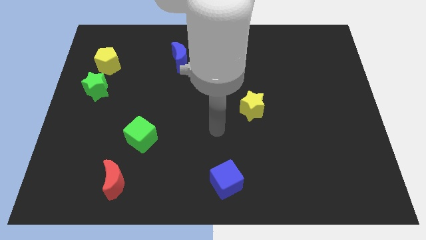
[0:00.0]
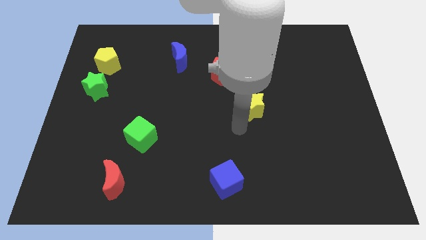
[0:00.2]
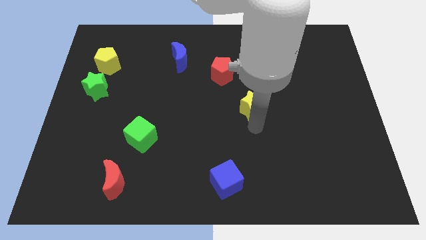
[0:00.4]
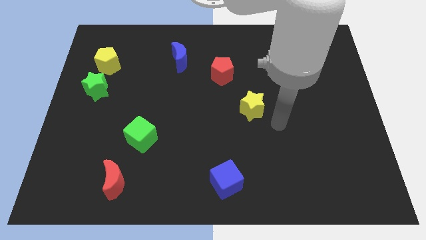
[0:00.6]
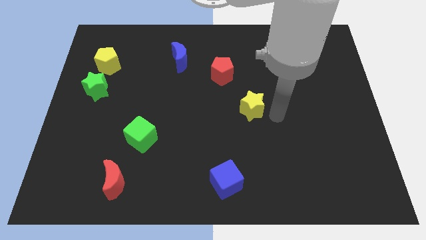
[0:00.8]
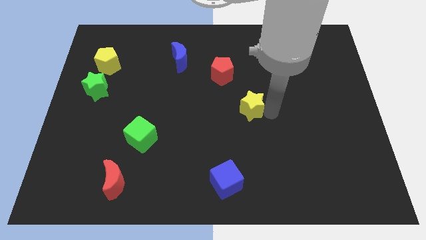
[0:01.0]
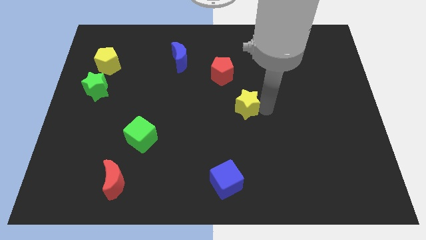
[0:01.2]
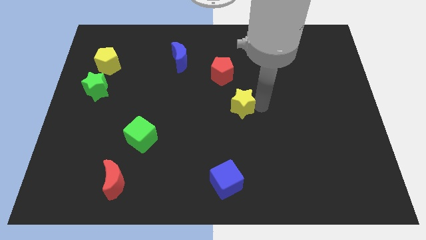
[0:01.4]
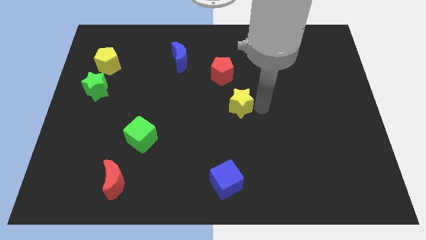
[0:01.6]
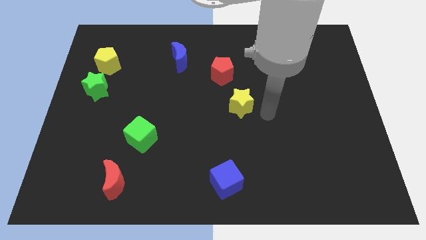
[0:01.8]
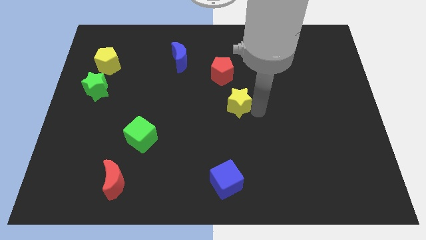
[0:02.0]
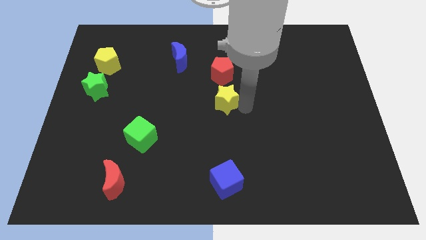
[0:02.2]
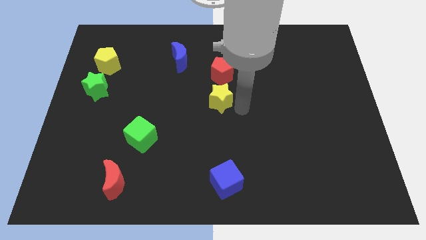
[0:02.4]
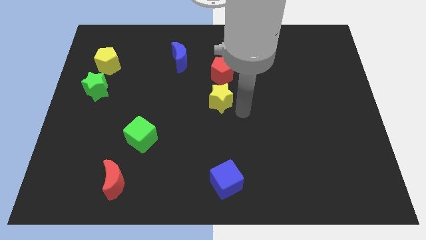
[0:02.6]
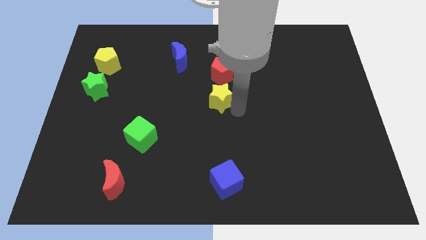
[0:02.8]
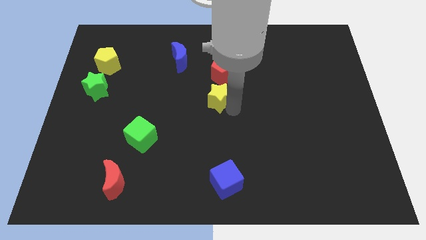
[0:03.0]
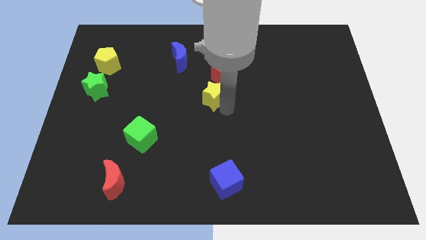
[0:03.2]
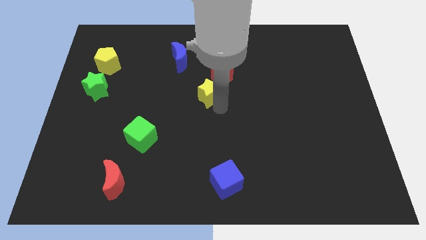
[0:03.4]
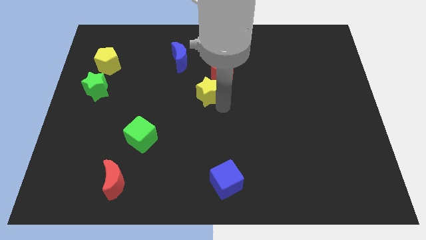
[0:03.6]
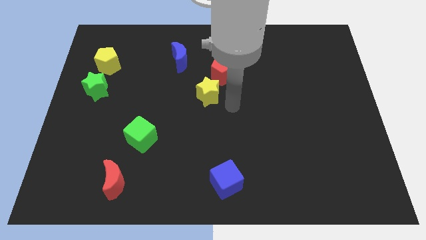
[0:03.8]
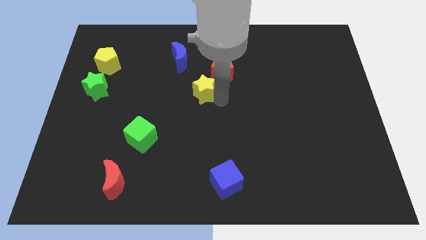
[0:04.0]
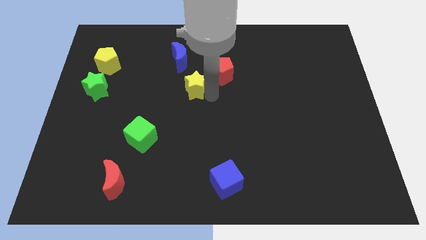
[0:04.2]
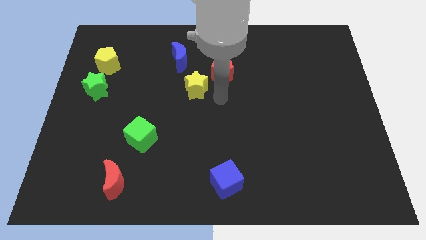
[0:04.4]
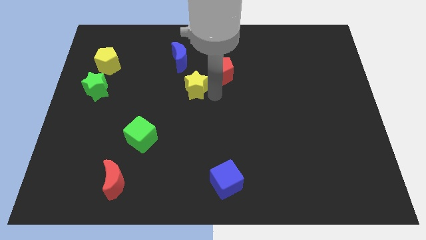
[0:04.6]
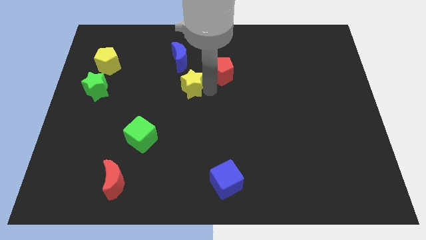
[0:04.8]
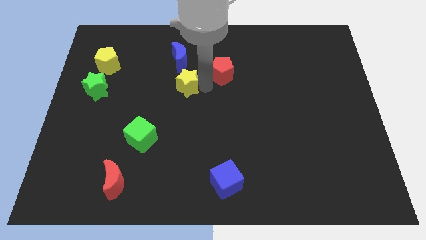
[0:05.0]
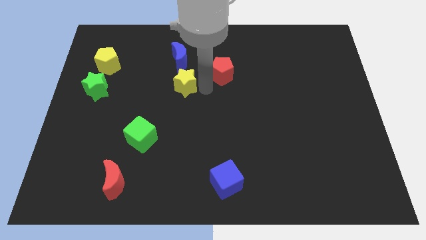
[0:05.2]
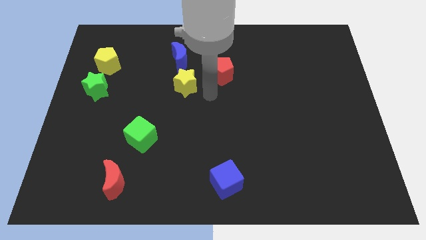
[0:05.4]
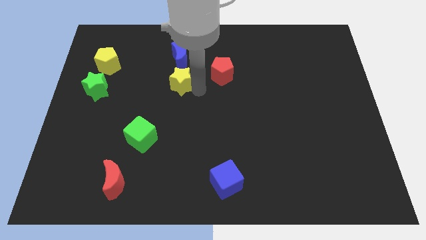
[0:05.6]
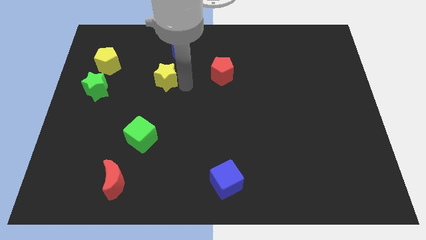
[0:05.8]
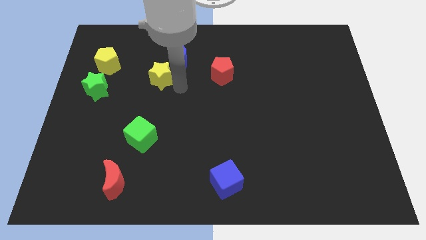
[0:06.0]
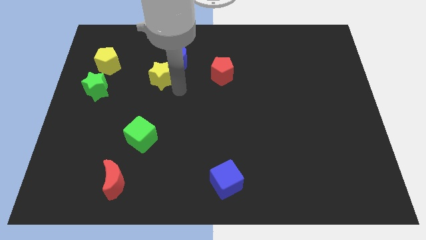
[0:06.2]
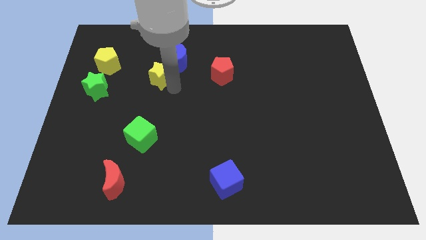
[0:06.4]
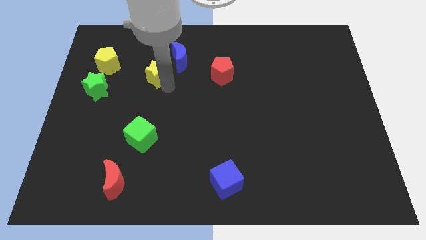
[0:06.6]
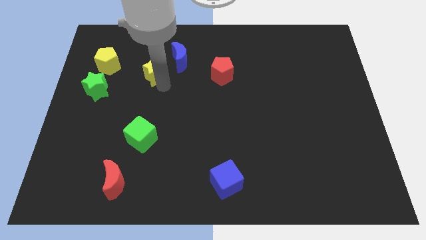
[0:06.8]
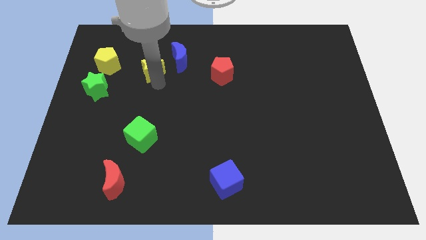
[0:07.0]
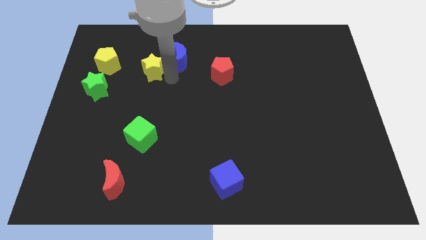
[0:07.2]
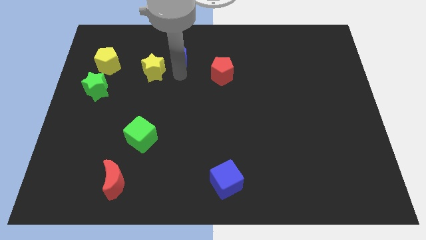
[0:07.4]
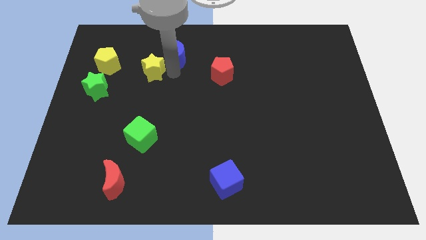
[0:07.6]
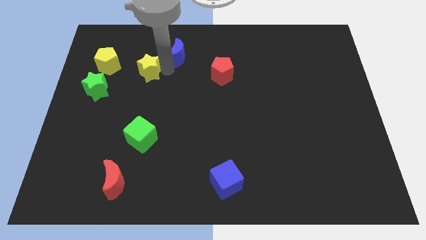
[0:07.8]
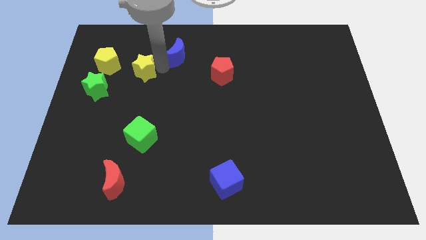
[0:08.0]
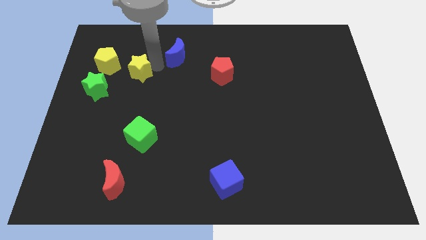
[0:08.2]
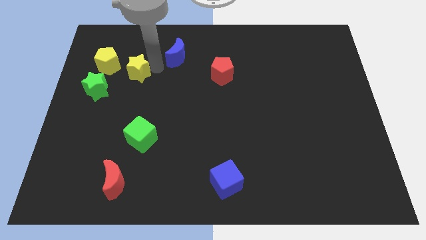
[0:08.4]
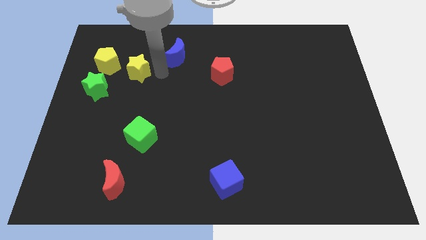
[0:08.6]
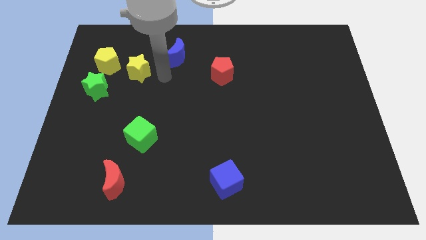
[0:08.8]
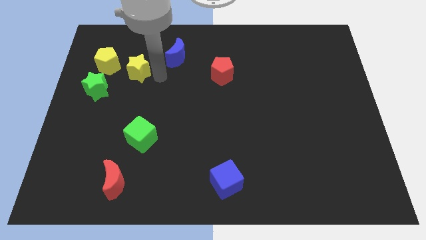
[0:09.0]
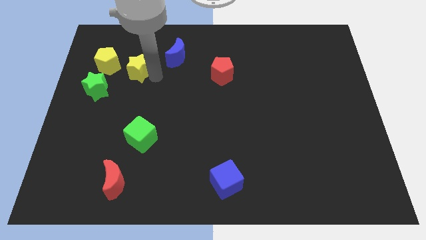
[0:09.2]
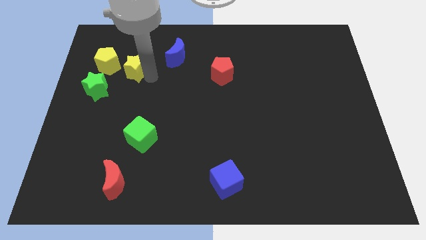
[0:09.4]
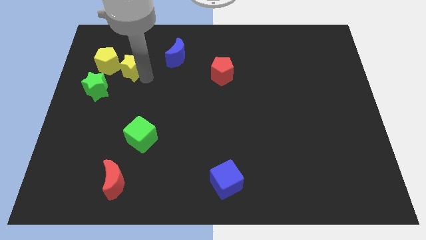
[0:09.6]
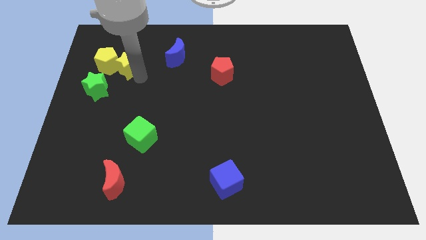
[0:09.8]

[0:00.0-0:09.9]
move the yellow star to the yellow pentagon

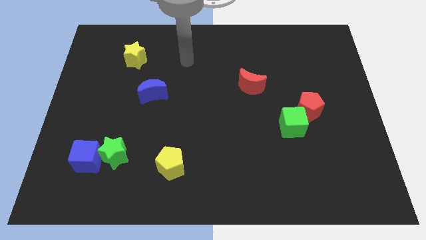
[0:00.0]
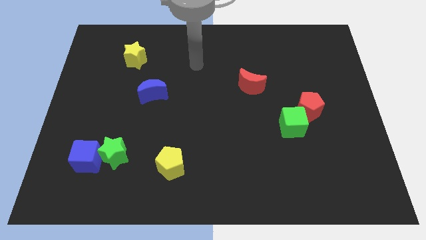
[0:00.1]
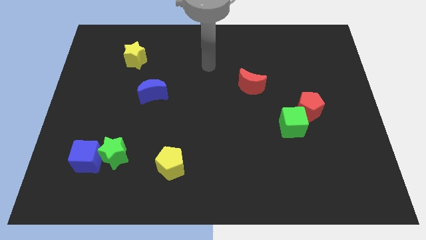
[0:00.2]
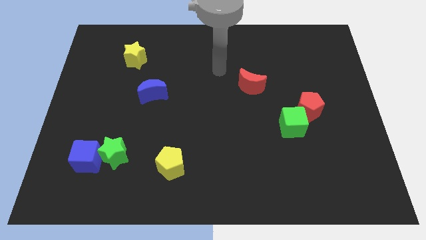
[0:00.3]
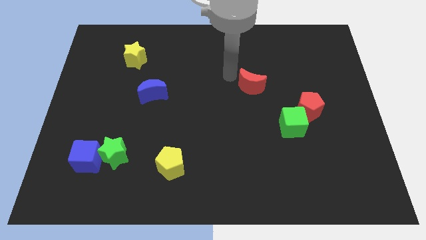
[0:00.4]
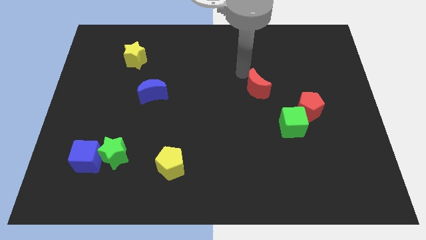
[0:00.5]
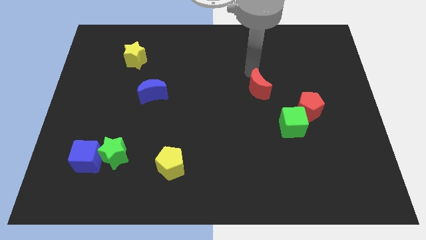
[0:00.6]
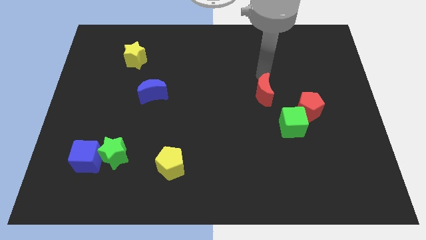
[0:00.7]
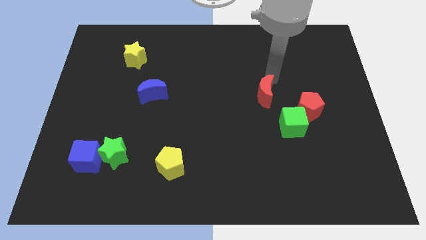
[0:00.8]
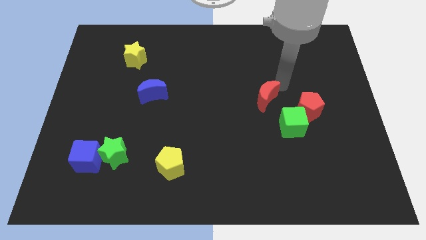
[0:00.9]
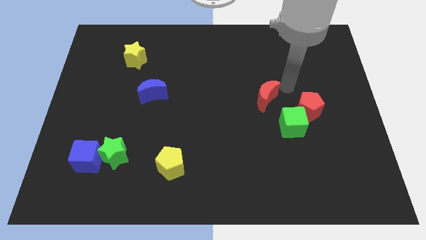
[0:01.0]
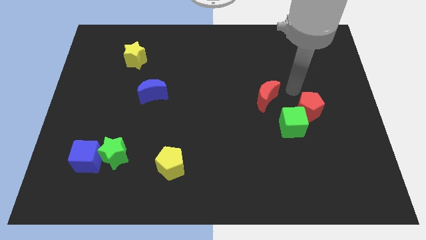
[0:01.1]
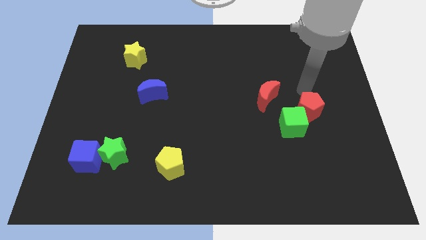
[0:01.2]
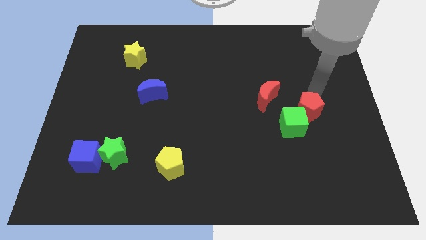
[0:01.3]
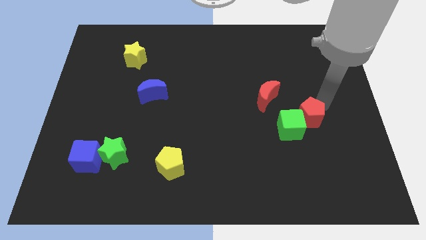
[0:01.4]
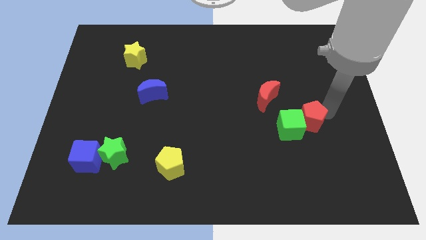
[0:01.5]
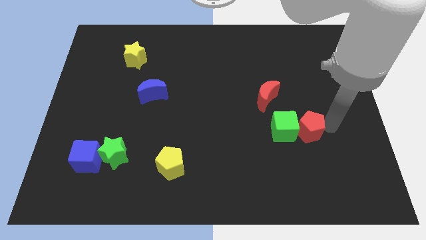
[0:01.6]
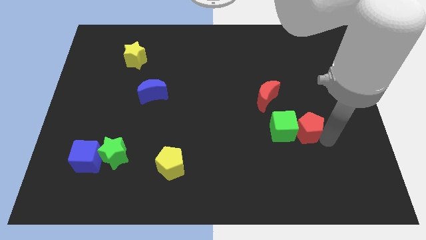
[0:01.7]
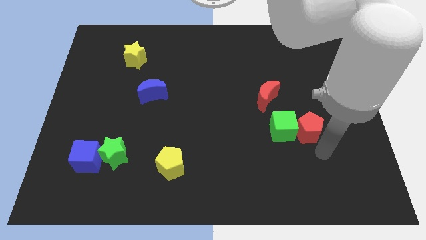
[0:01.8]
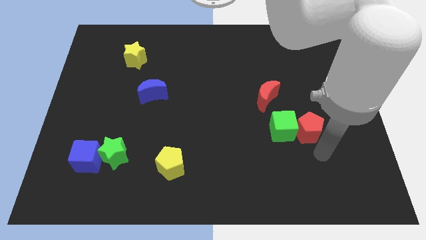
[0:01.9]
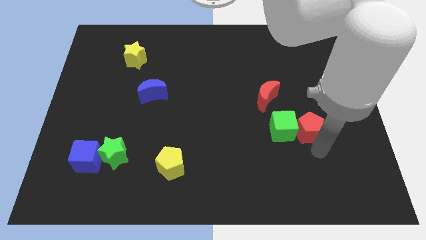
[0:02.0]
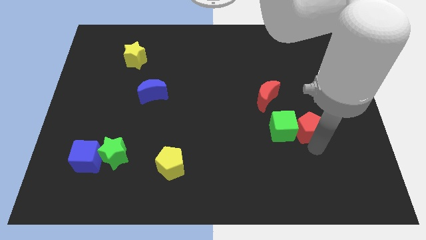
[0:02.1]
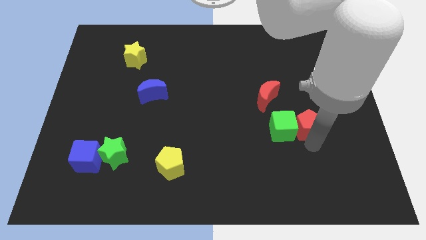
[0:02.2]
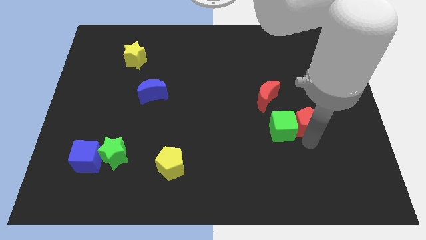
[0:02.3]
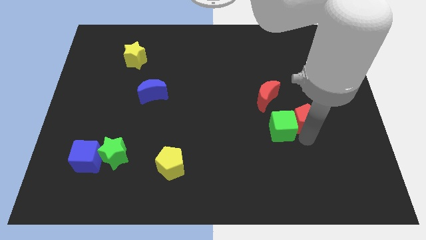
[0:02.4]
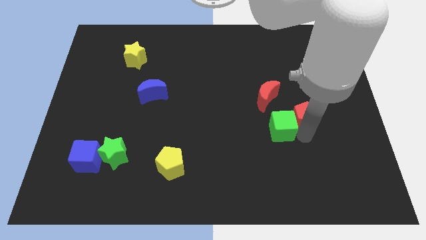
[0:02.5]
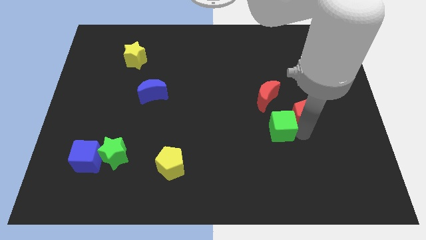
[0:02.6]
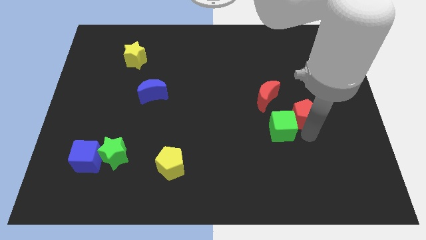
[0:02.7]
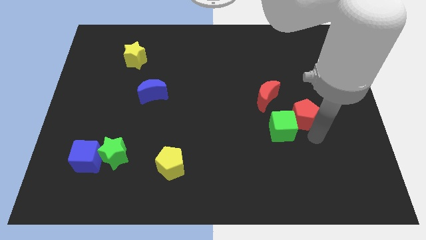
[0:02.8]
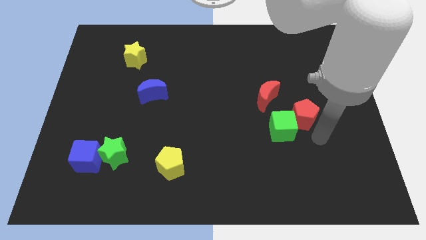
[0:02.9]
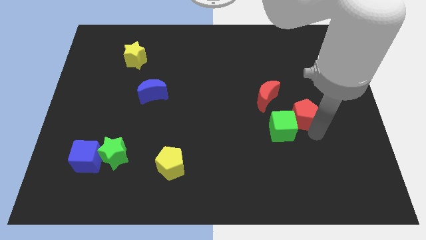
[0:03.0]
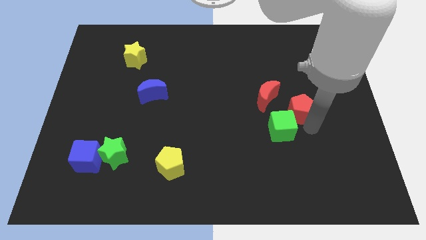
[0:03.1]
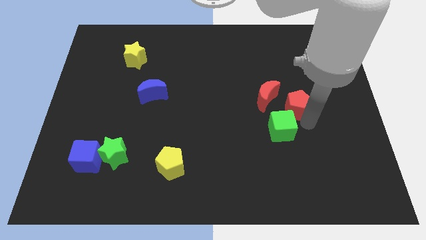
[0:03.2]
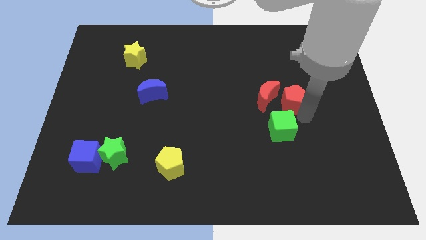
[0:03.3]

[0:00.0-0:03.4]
move the red pentagon to the red moon
